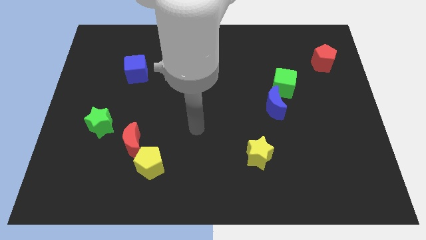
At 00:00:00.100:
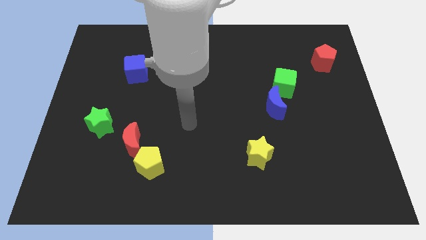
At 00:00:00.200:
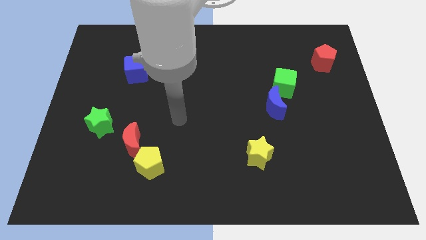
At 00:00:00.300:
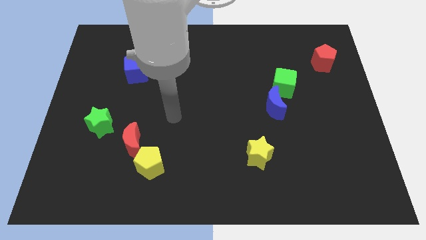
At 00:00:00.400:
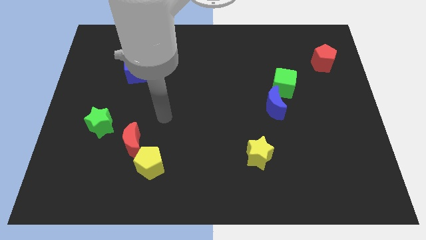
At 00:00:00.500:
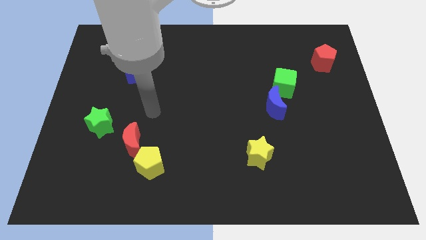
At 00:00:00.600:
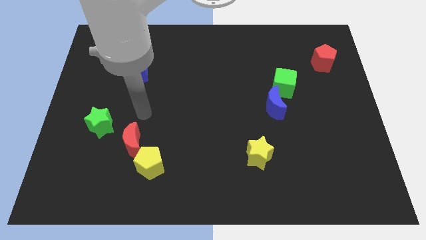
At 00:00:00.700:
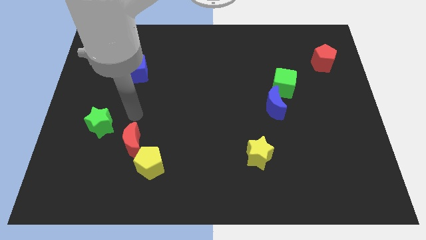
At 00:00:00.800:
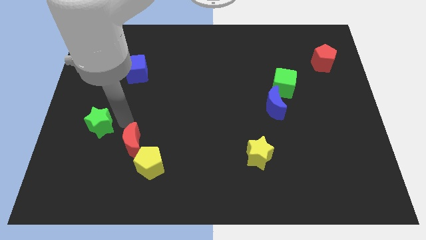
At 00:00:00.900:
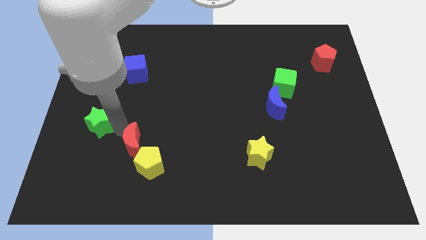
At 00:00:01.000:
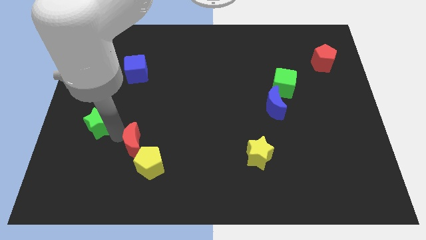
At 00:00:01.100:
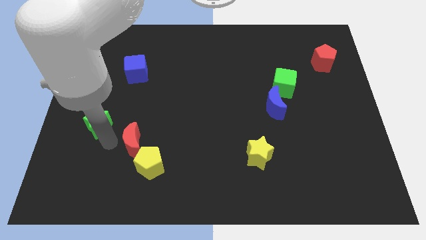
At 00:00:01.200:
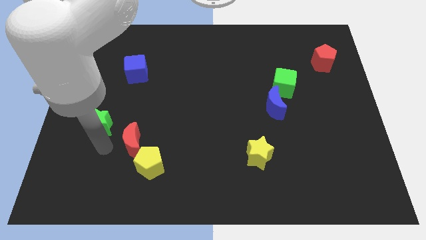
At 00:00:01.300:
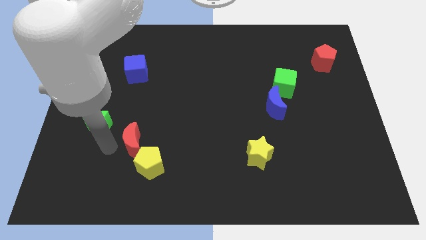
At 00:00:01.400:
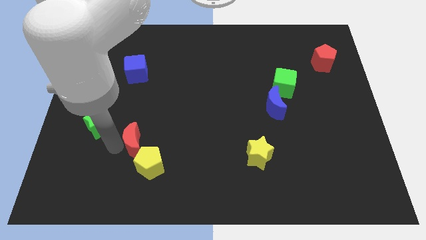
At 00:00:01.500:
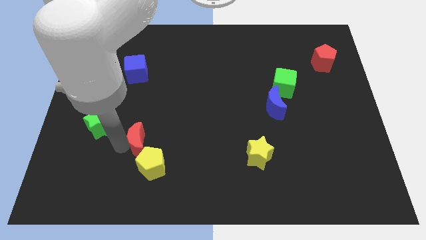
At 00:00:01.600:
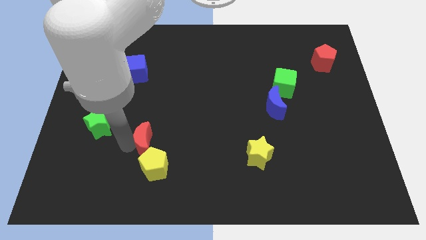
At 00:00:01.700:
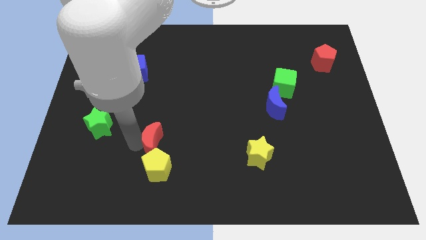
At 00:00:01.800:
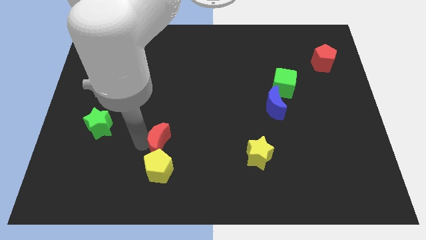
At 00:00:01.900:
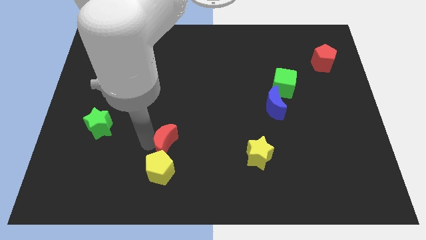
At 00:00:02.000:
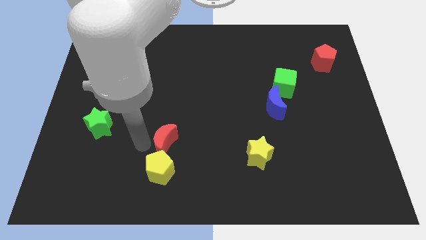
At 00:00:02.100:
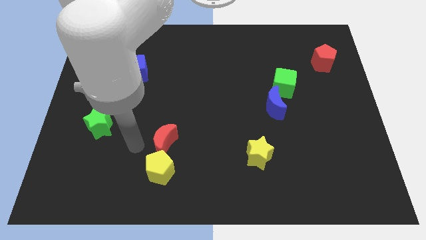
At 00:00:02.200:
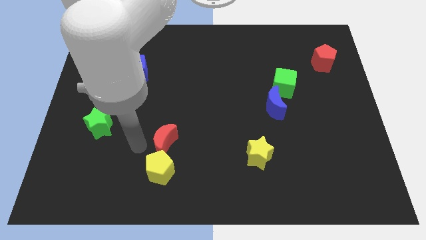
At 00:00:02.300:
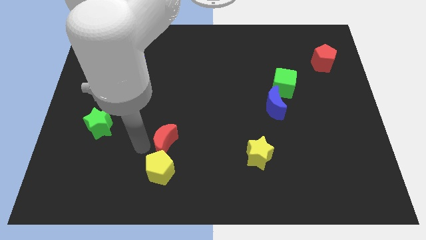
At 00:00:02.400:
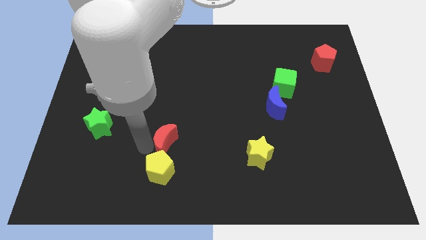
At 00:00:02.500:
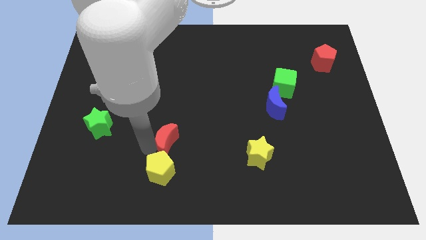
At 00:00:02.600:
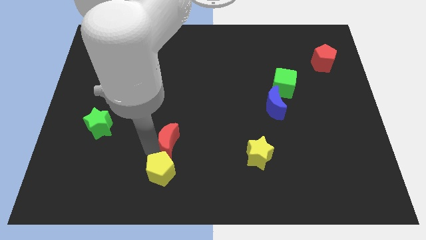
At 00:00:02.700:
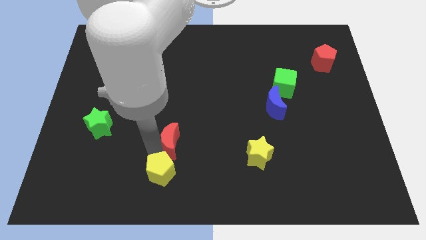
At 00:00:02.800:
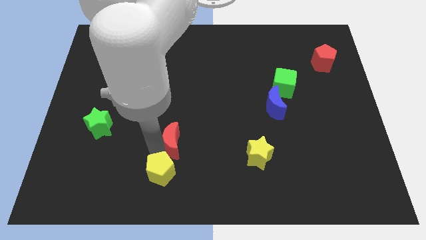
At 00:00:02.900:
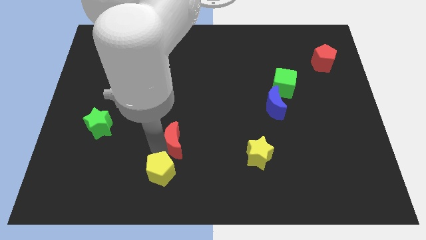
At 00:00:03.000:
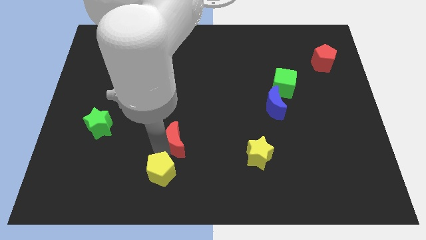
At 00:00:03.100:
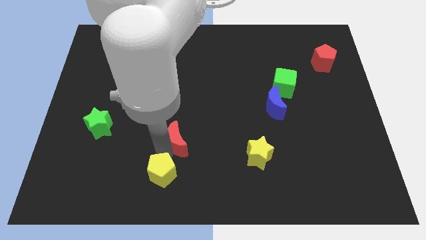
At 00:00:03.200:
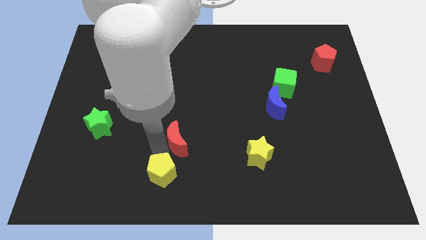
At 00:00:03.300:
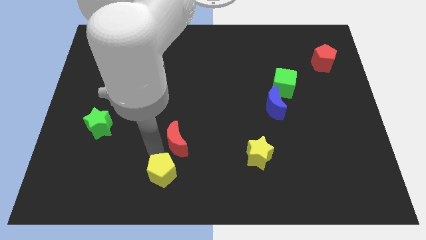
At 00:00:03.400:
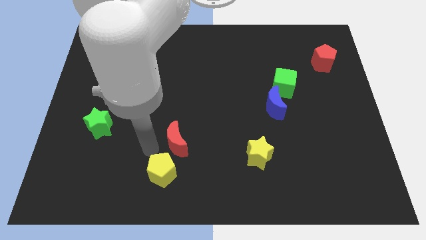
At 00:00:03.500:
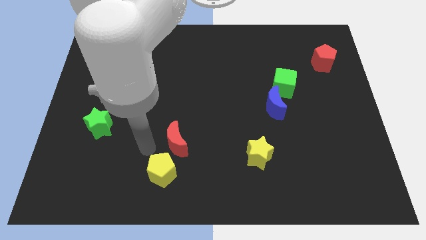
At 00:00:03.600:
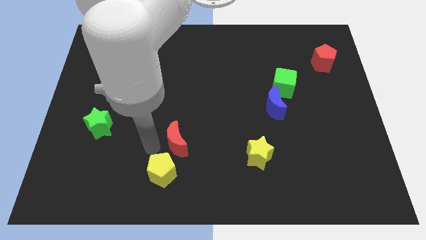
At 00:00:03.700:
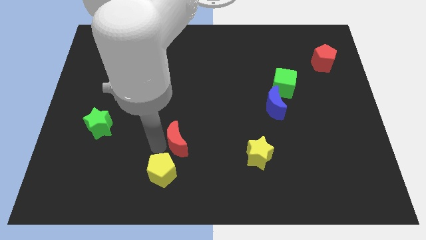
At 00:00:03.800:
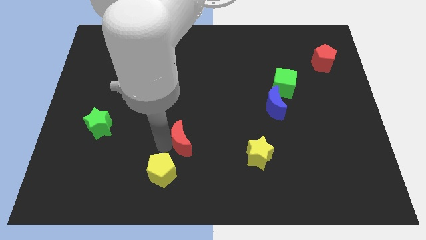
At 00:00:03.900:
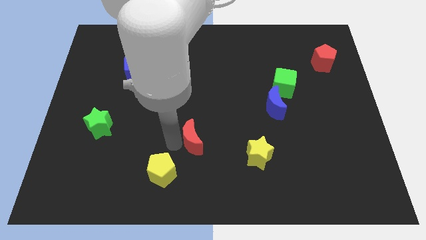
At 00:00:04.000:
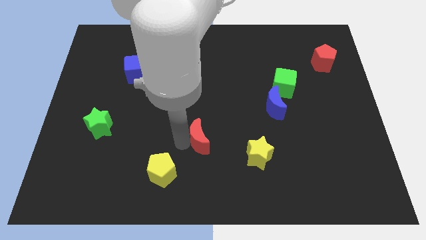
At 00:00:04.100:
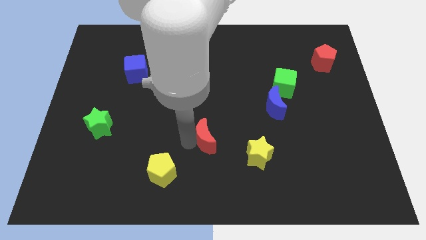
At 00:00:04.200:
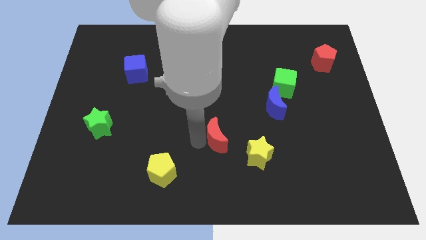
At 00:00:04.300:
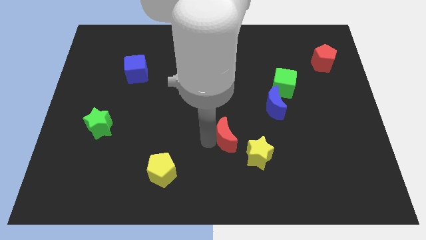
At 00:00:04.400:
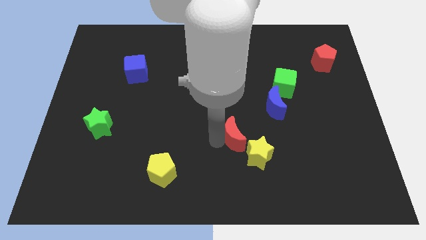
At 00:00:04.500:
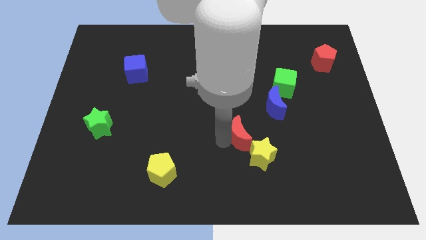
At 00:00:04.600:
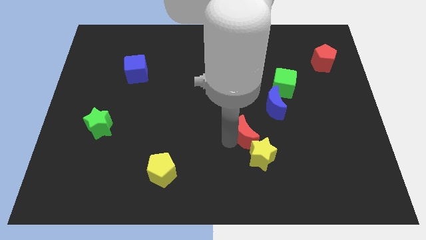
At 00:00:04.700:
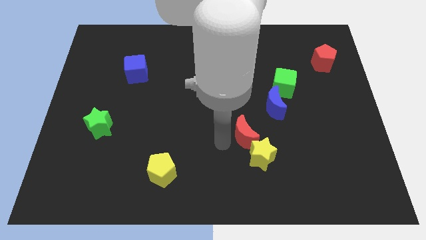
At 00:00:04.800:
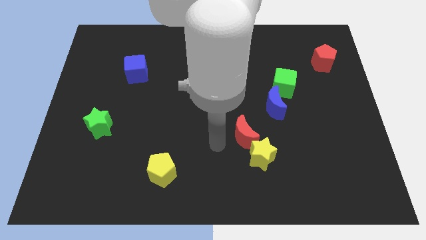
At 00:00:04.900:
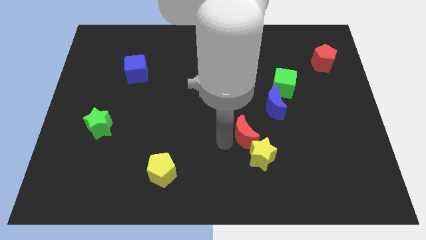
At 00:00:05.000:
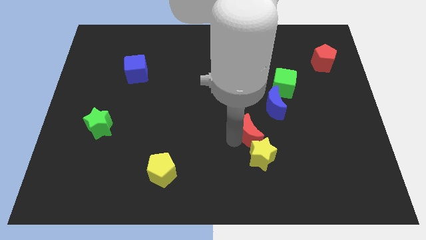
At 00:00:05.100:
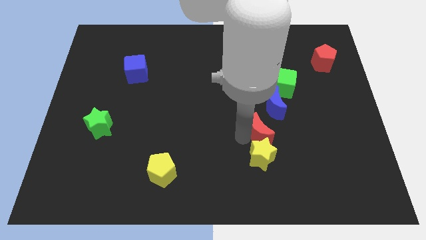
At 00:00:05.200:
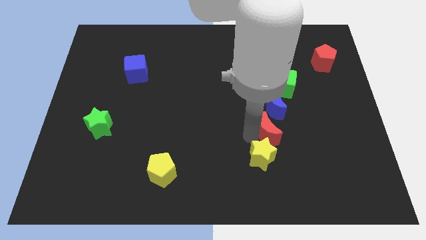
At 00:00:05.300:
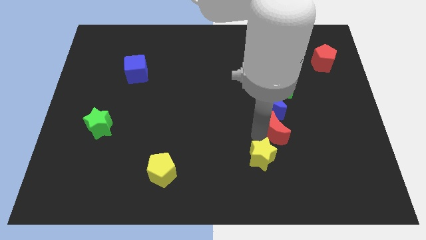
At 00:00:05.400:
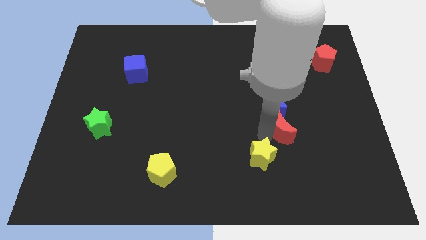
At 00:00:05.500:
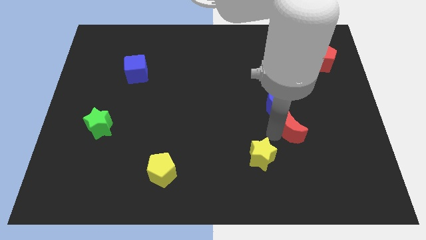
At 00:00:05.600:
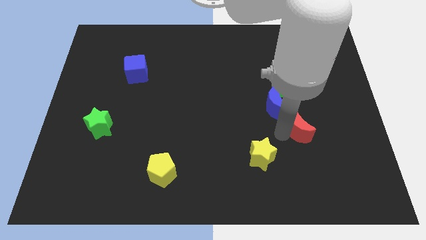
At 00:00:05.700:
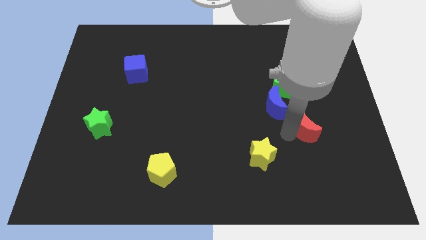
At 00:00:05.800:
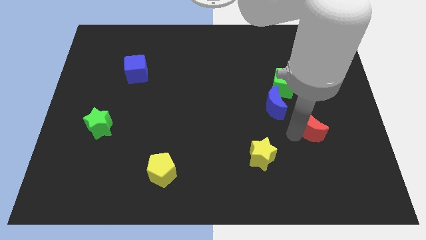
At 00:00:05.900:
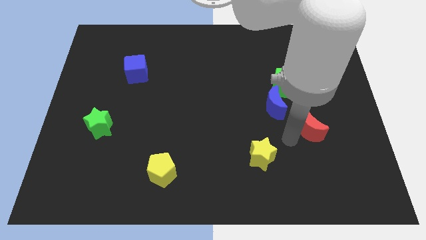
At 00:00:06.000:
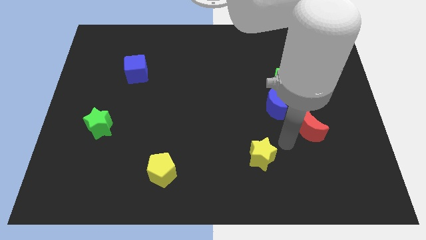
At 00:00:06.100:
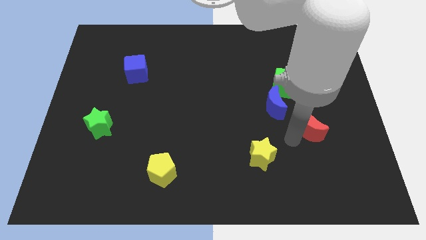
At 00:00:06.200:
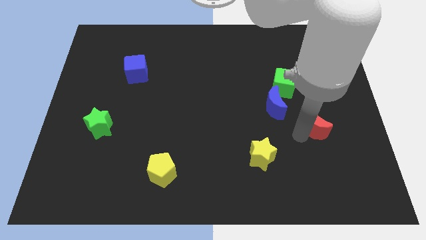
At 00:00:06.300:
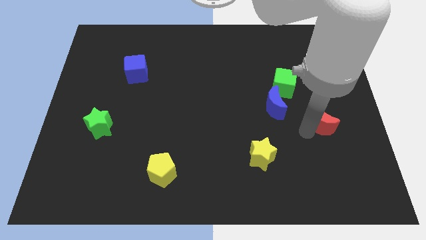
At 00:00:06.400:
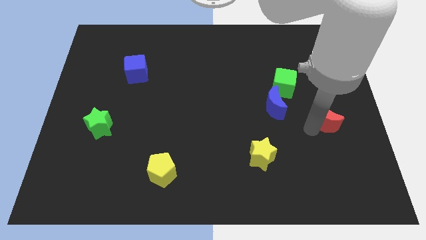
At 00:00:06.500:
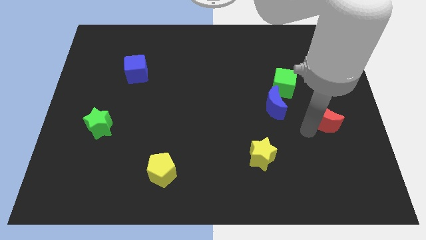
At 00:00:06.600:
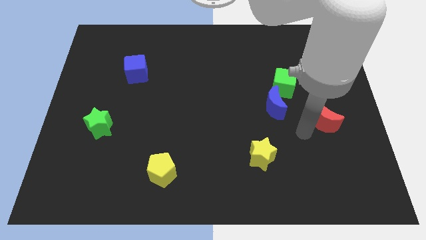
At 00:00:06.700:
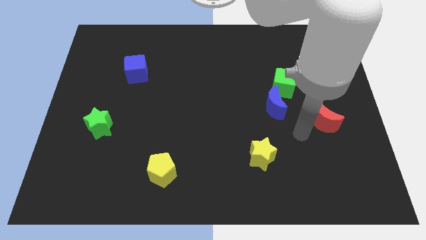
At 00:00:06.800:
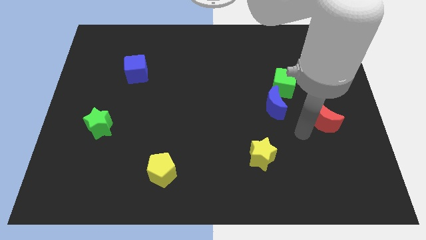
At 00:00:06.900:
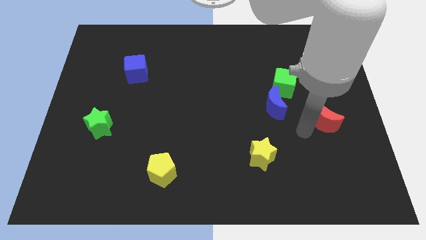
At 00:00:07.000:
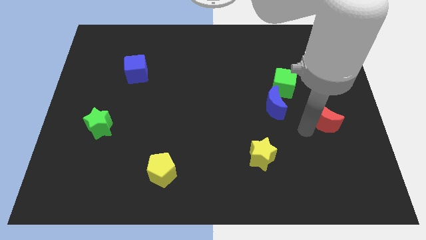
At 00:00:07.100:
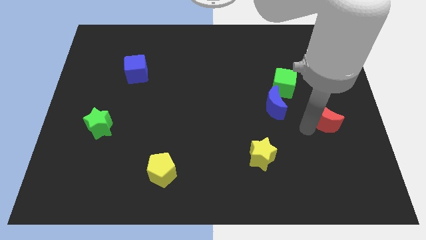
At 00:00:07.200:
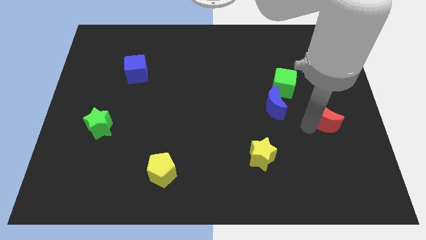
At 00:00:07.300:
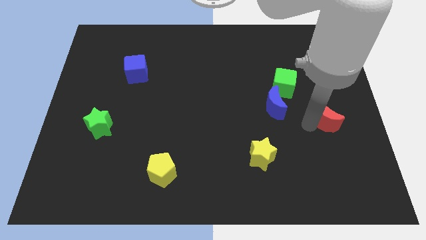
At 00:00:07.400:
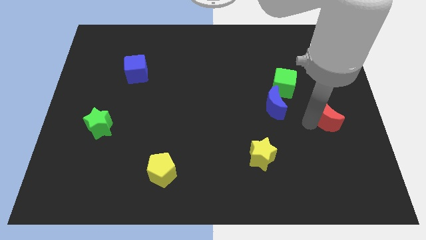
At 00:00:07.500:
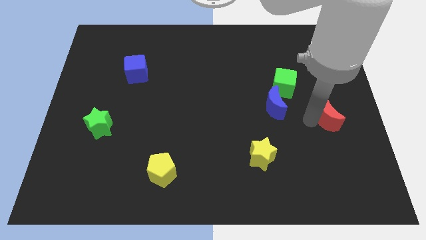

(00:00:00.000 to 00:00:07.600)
slide the red moon to the right side
